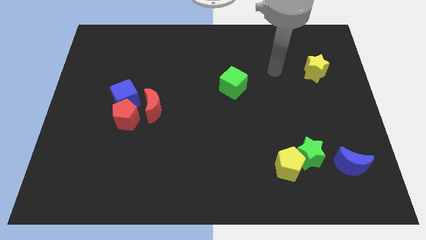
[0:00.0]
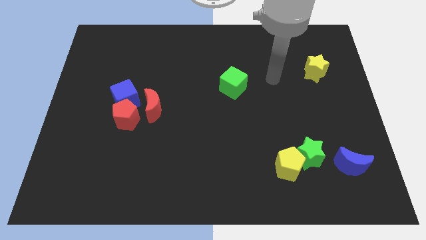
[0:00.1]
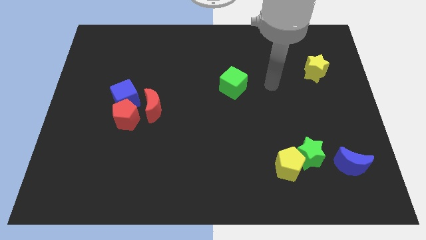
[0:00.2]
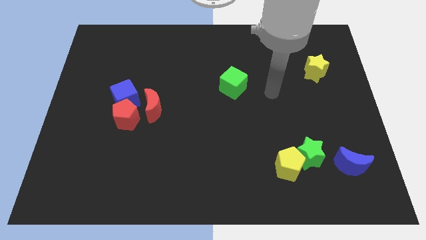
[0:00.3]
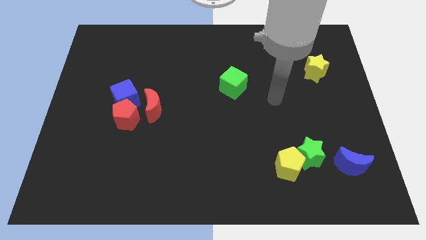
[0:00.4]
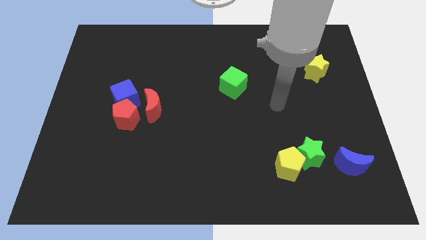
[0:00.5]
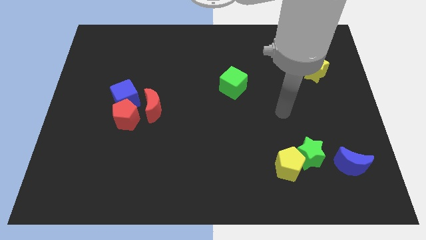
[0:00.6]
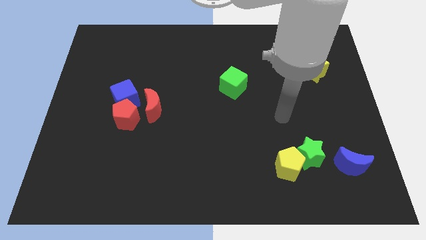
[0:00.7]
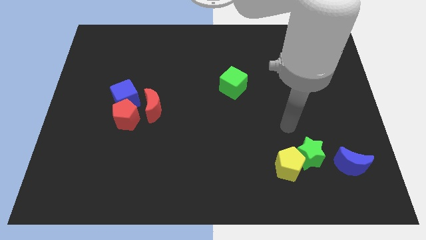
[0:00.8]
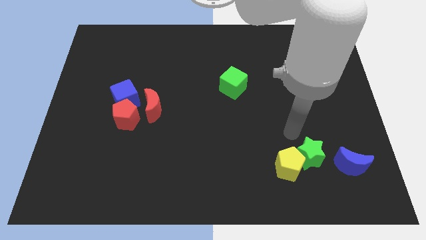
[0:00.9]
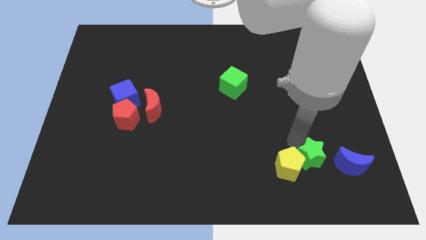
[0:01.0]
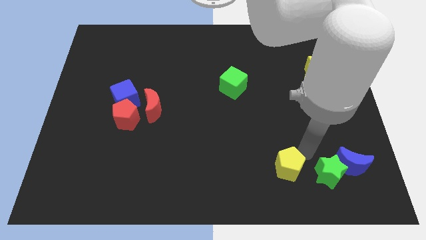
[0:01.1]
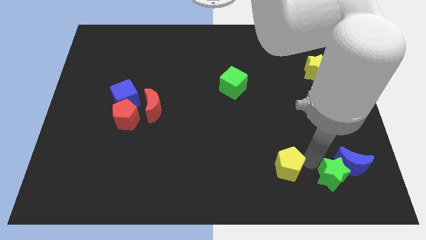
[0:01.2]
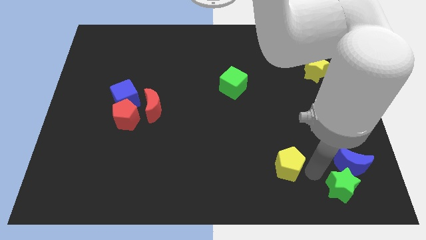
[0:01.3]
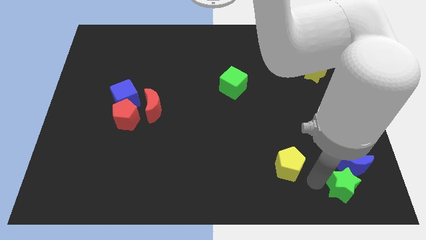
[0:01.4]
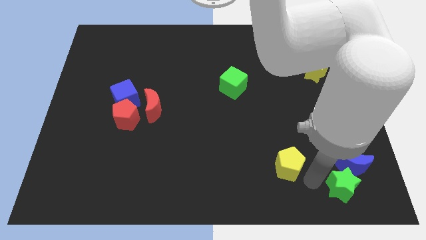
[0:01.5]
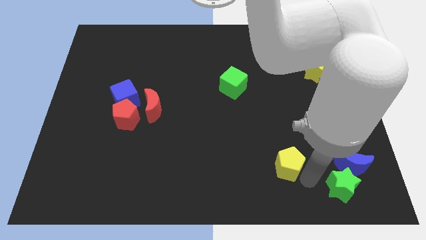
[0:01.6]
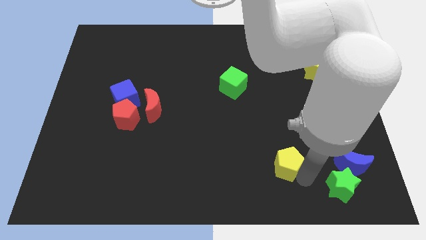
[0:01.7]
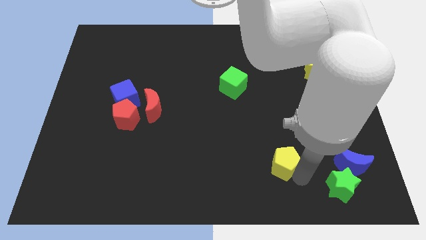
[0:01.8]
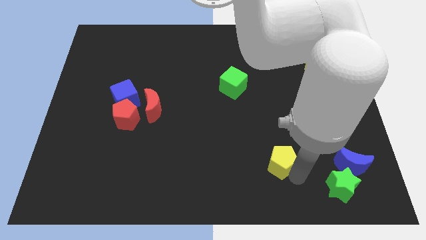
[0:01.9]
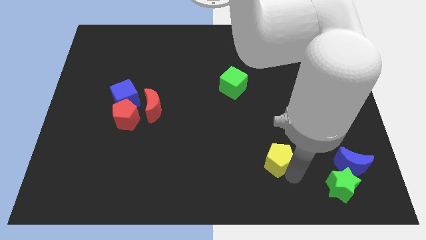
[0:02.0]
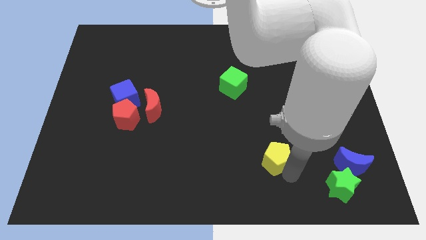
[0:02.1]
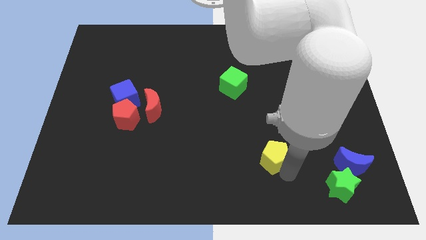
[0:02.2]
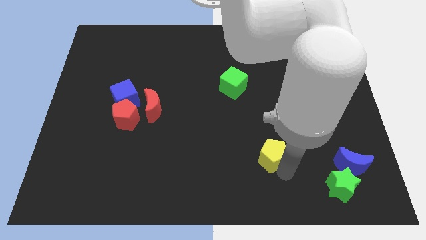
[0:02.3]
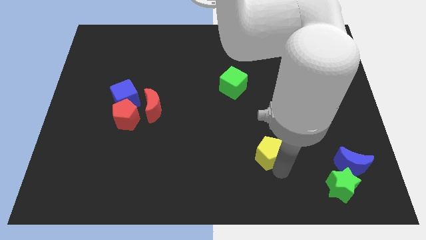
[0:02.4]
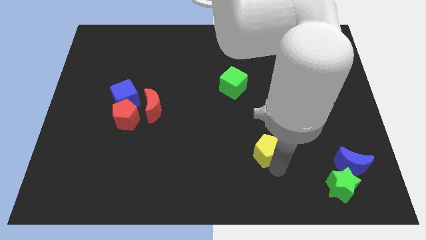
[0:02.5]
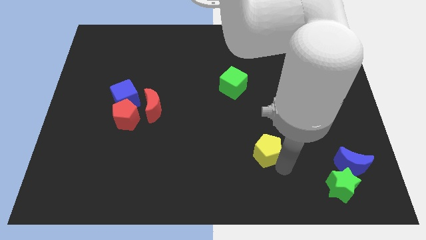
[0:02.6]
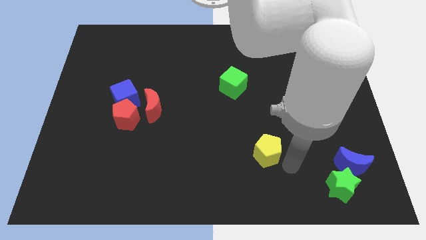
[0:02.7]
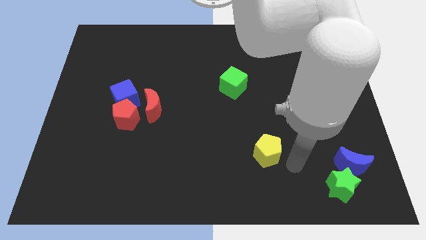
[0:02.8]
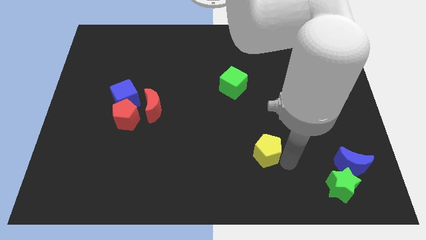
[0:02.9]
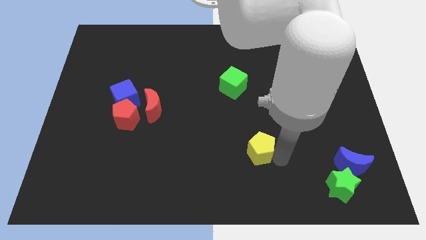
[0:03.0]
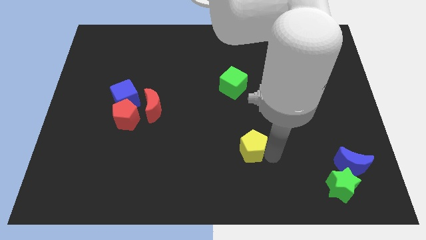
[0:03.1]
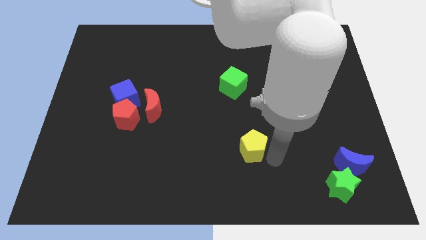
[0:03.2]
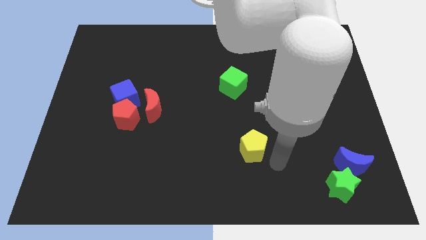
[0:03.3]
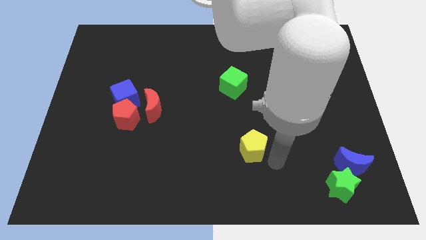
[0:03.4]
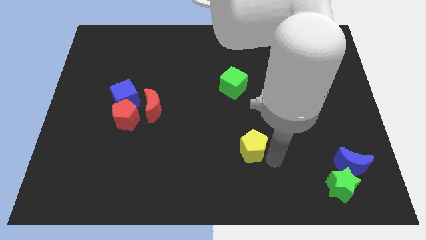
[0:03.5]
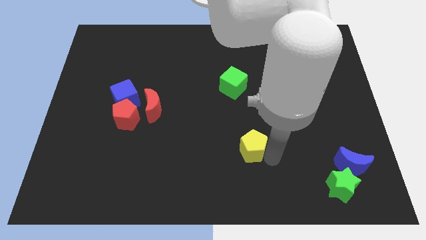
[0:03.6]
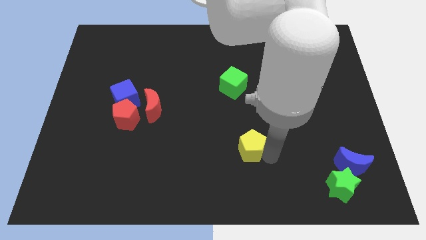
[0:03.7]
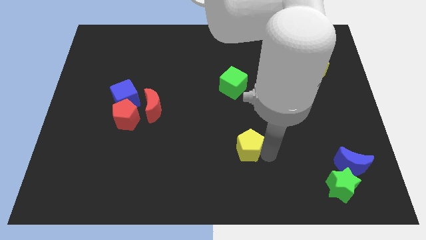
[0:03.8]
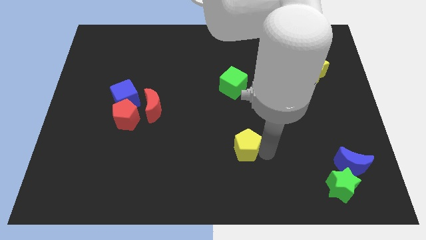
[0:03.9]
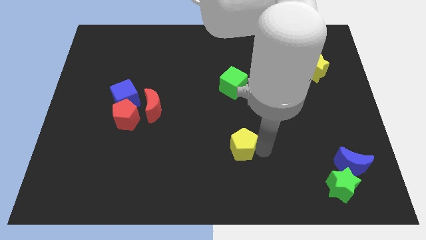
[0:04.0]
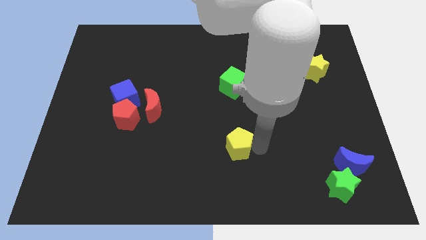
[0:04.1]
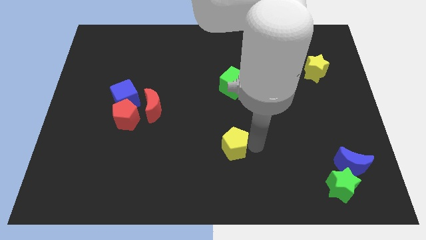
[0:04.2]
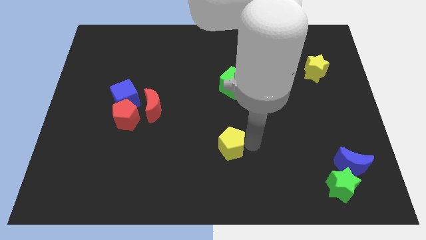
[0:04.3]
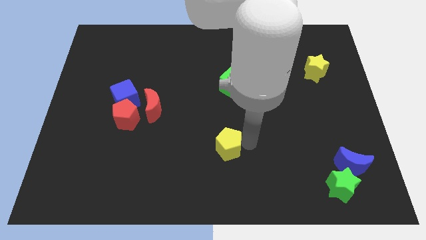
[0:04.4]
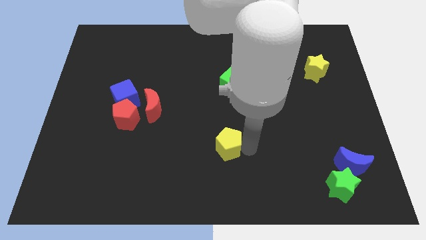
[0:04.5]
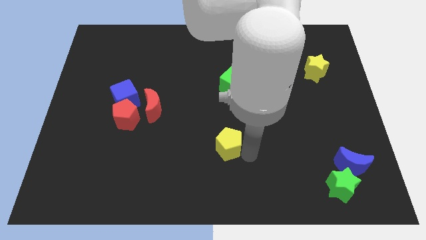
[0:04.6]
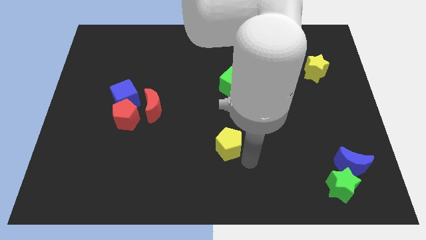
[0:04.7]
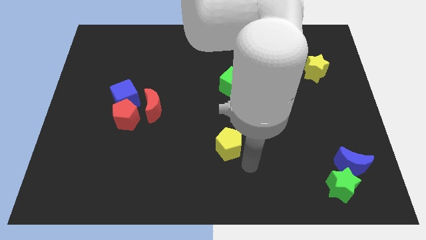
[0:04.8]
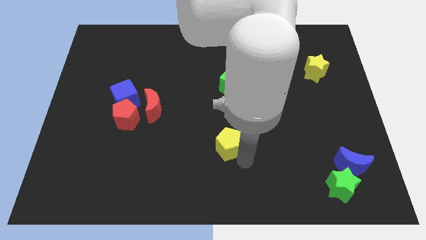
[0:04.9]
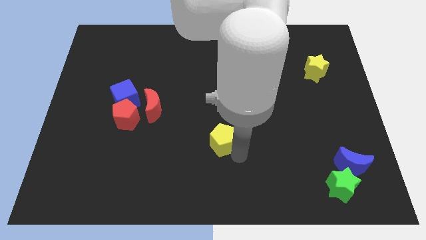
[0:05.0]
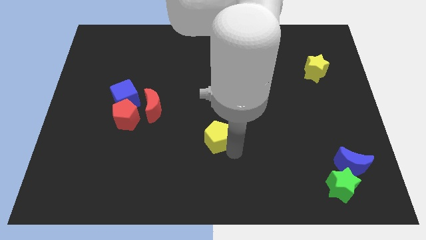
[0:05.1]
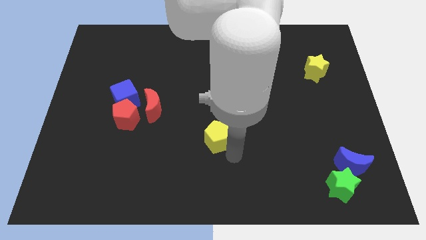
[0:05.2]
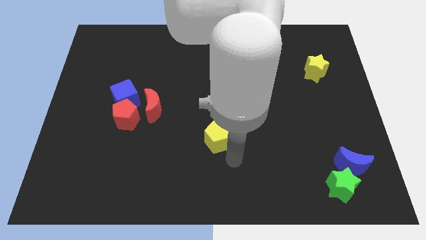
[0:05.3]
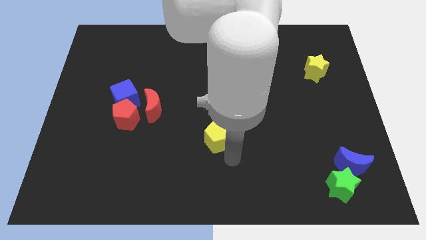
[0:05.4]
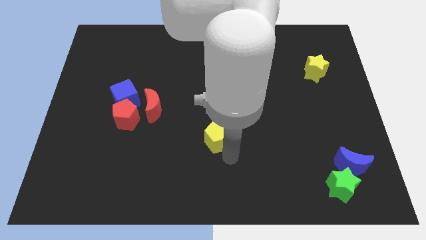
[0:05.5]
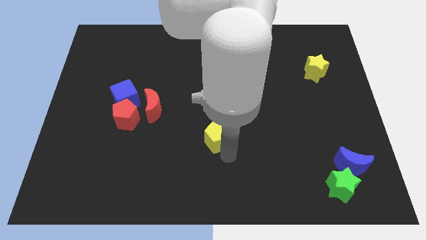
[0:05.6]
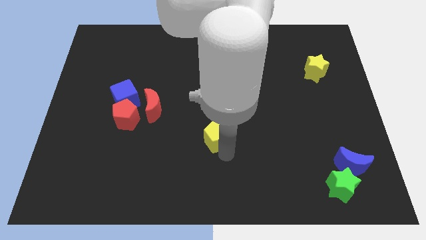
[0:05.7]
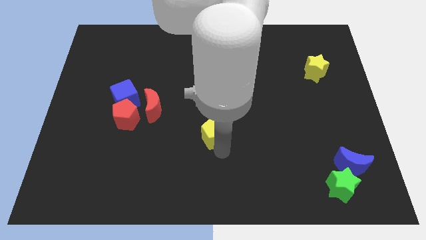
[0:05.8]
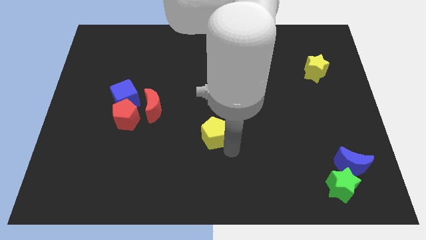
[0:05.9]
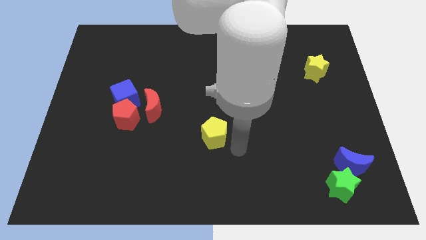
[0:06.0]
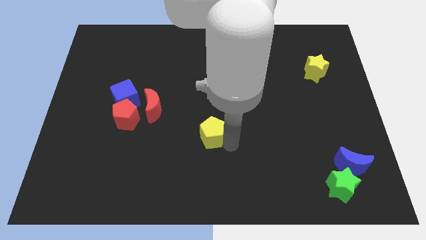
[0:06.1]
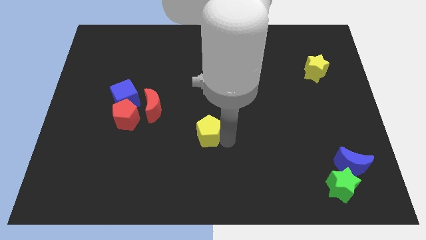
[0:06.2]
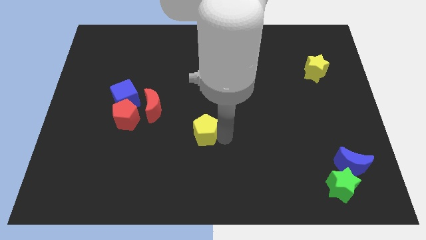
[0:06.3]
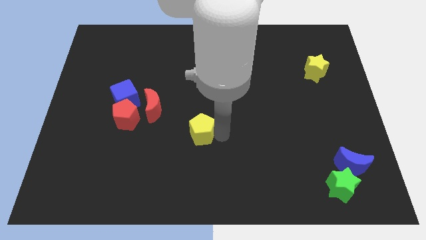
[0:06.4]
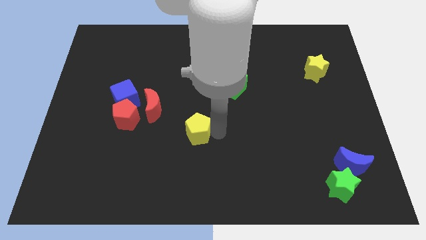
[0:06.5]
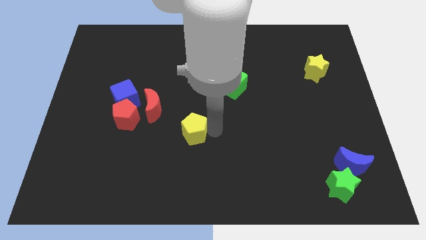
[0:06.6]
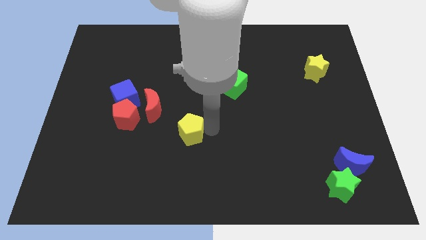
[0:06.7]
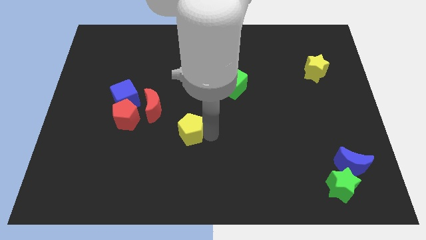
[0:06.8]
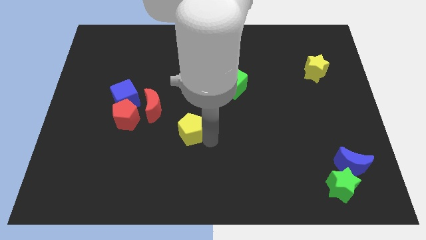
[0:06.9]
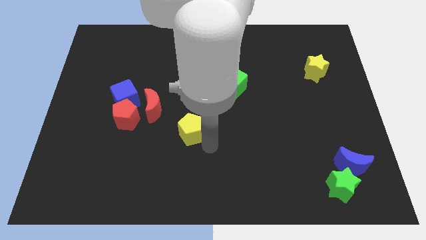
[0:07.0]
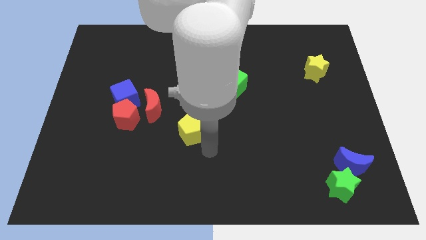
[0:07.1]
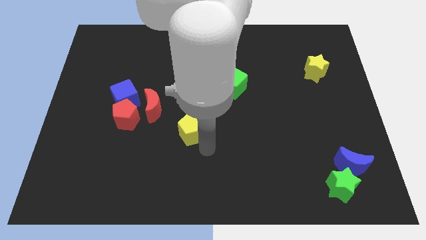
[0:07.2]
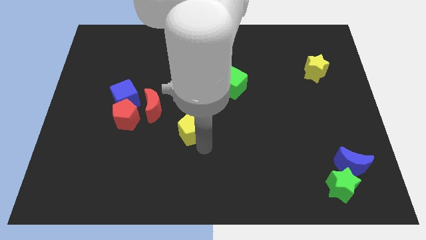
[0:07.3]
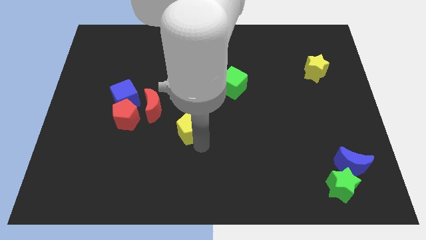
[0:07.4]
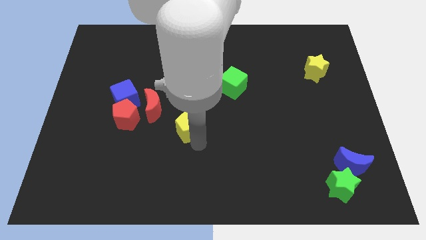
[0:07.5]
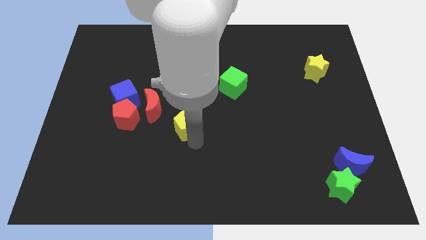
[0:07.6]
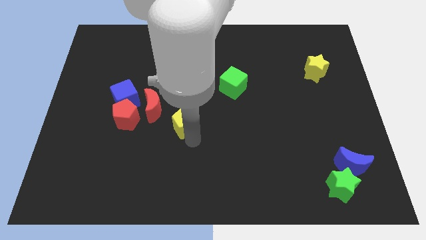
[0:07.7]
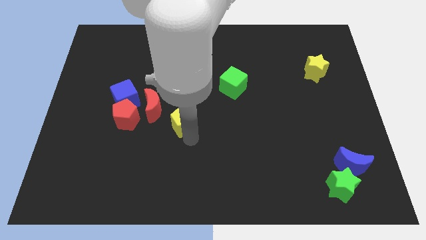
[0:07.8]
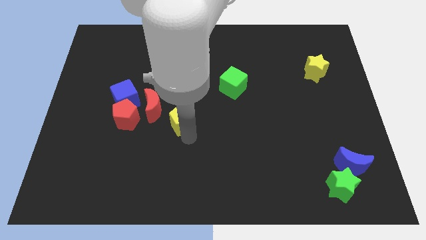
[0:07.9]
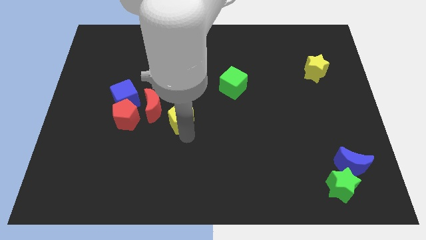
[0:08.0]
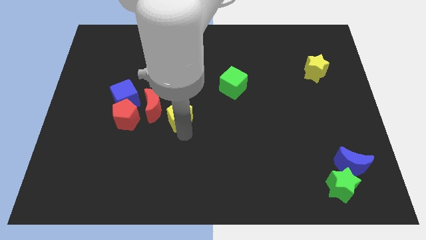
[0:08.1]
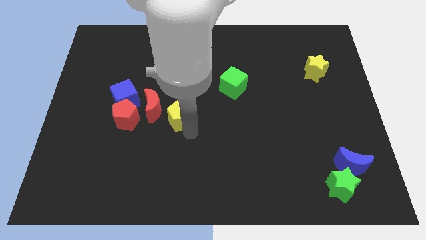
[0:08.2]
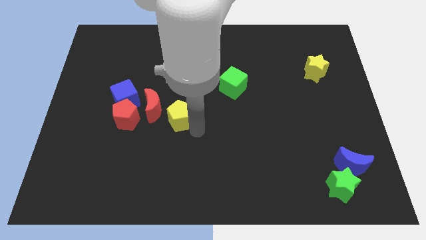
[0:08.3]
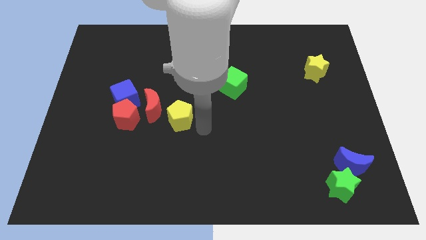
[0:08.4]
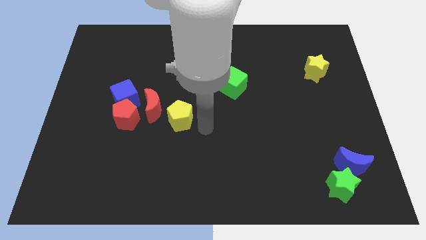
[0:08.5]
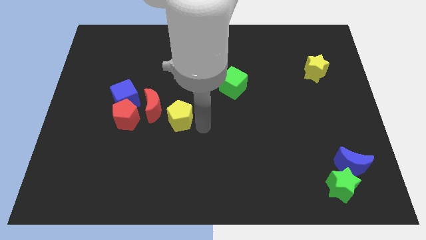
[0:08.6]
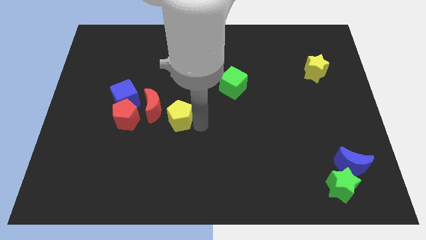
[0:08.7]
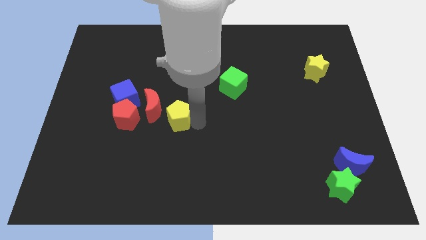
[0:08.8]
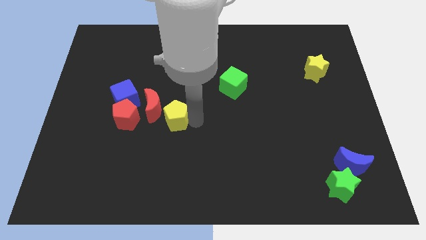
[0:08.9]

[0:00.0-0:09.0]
slide the yellow pentagon next to the red moon
